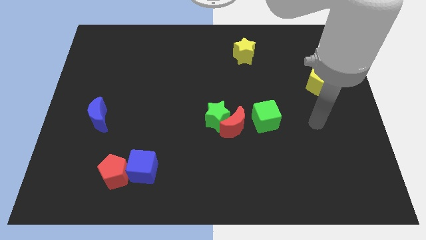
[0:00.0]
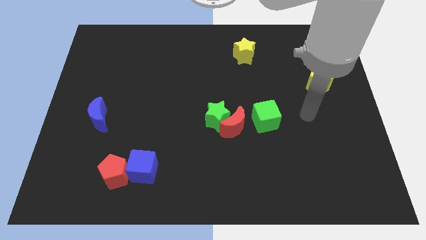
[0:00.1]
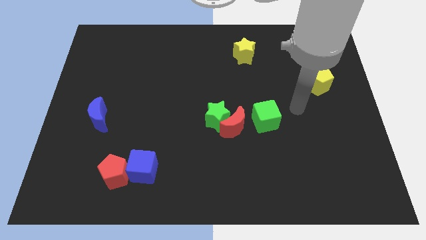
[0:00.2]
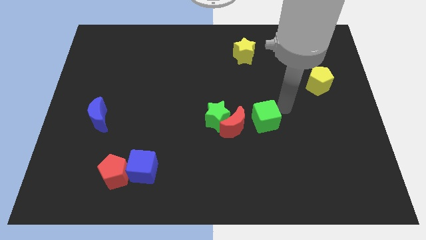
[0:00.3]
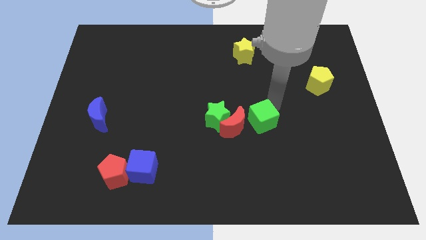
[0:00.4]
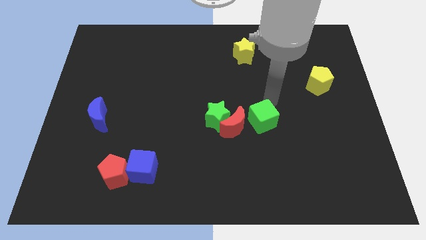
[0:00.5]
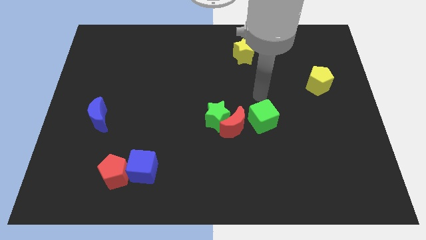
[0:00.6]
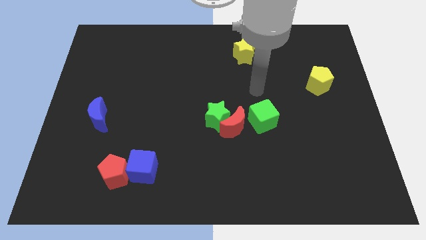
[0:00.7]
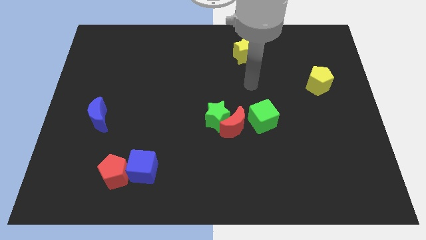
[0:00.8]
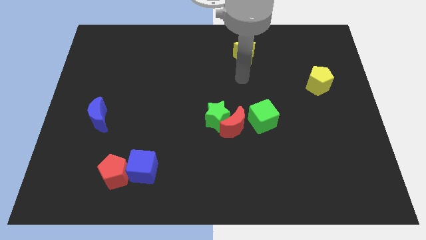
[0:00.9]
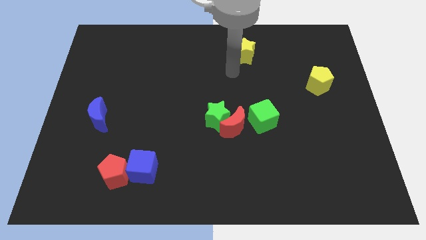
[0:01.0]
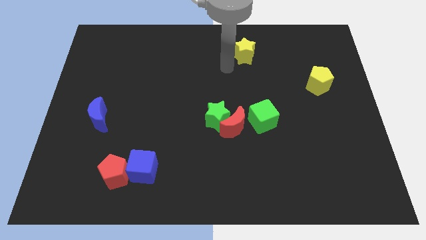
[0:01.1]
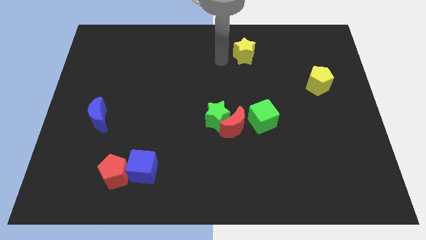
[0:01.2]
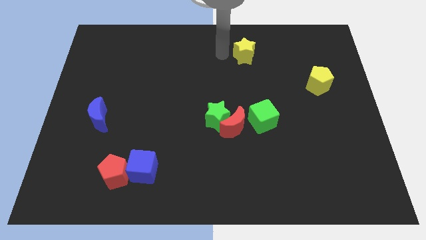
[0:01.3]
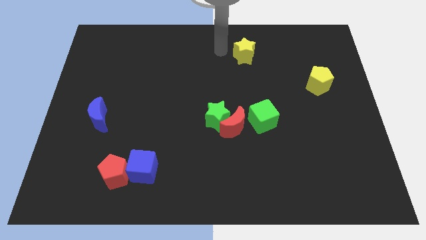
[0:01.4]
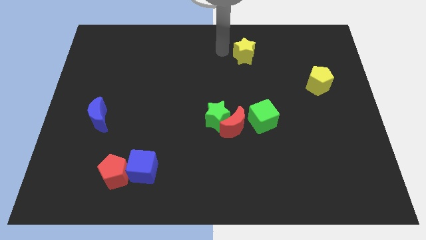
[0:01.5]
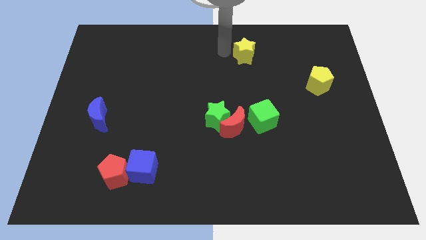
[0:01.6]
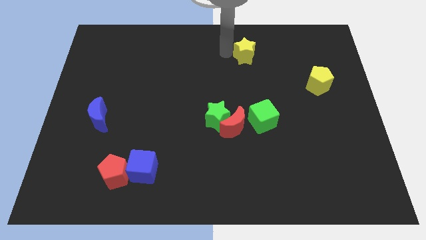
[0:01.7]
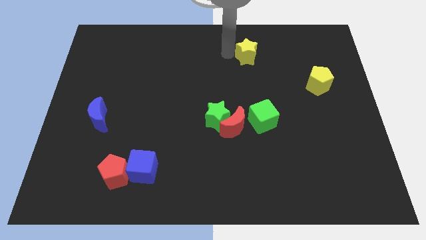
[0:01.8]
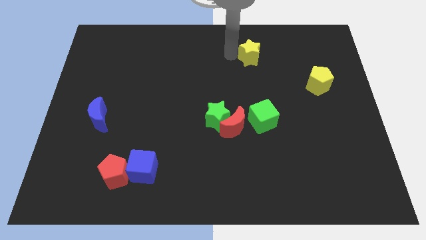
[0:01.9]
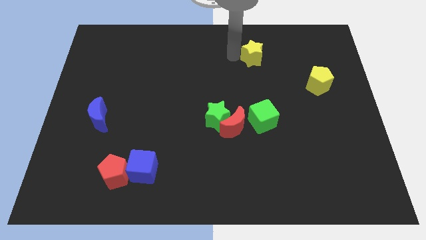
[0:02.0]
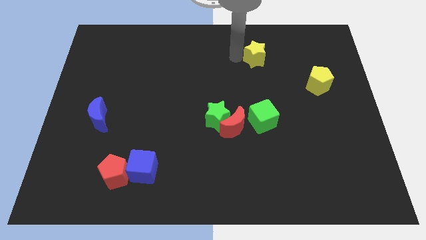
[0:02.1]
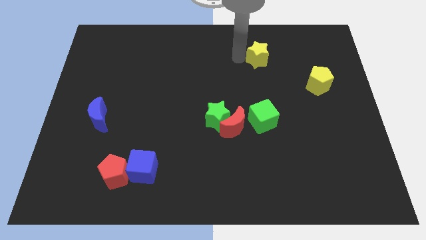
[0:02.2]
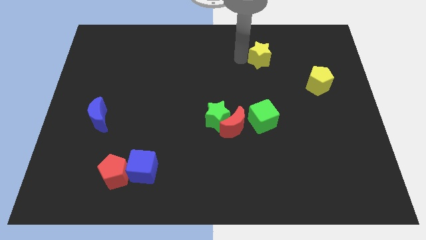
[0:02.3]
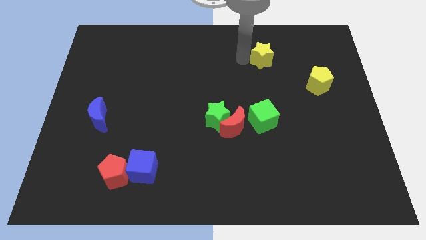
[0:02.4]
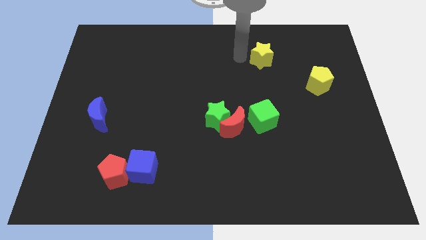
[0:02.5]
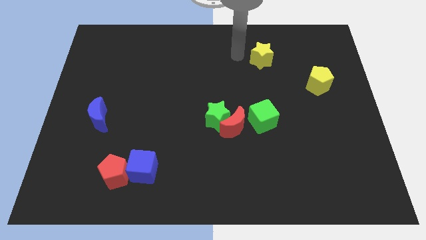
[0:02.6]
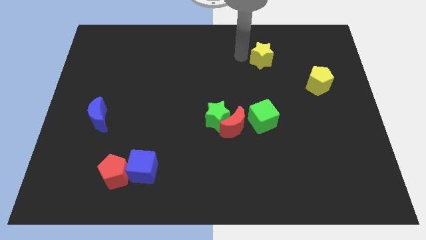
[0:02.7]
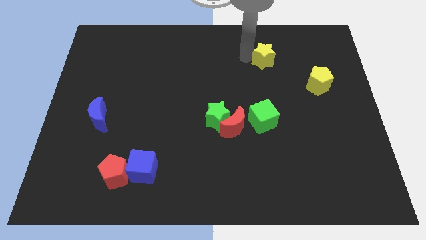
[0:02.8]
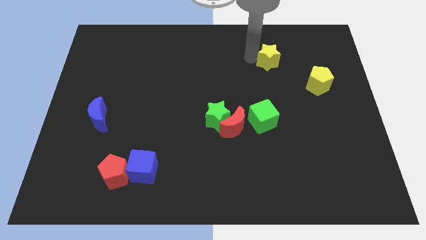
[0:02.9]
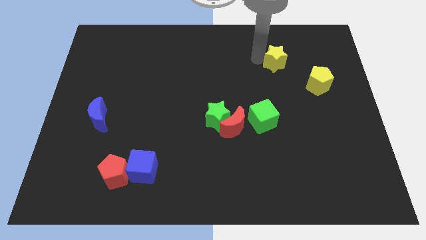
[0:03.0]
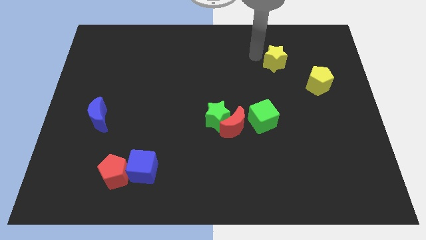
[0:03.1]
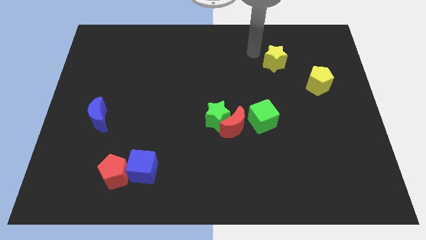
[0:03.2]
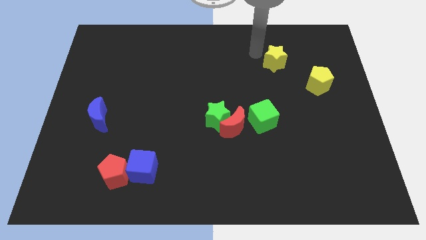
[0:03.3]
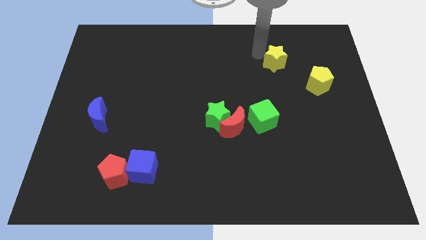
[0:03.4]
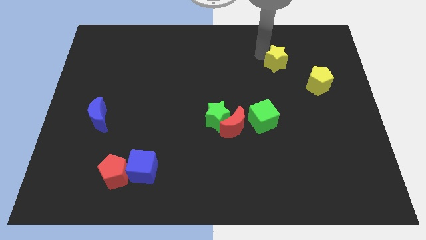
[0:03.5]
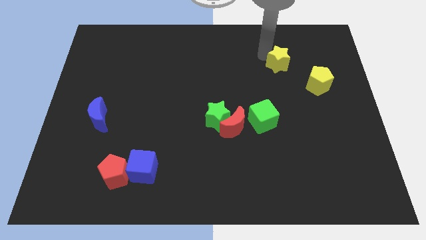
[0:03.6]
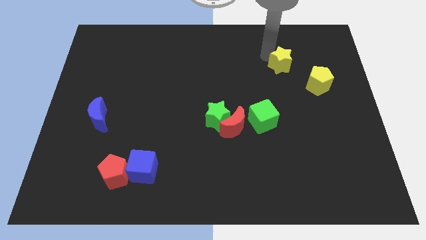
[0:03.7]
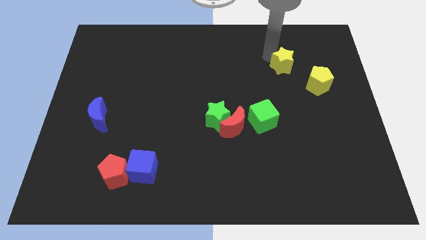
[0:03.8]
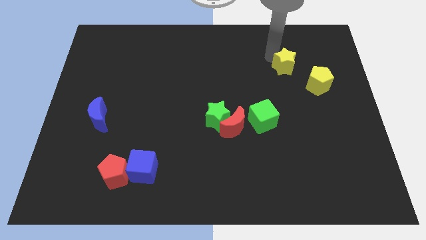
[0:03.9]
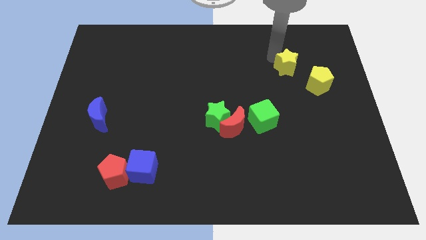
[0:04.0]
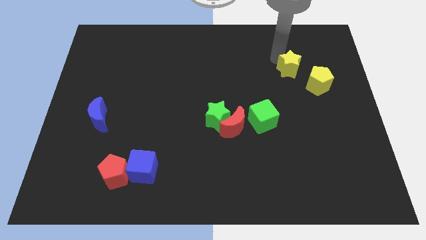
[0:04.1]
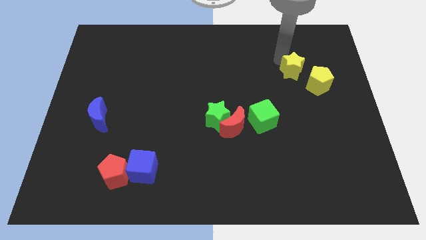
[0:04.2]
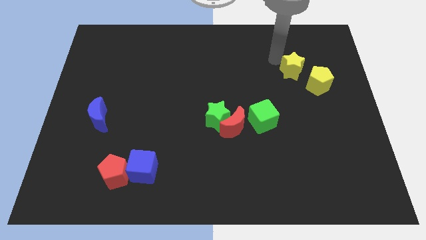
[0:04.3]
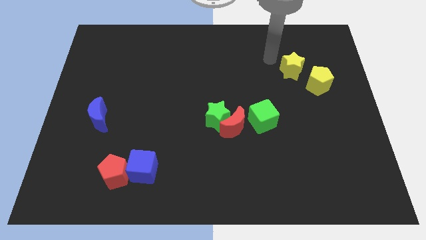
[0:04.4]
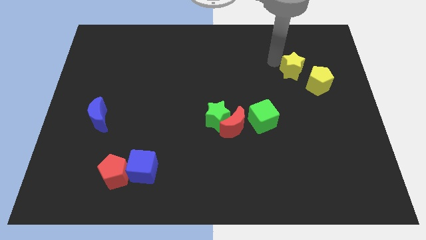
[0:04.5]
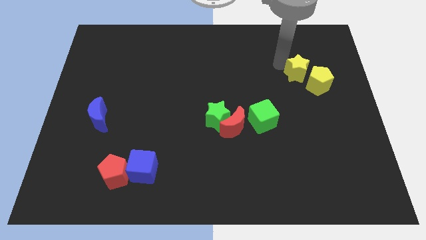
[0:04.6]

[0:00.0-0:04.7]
move the yellow star to the yellow pentagon

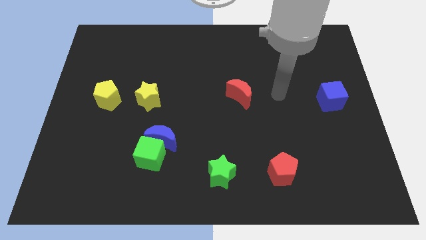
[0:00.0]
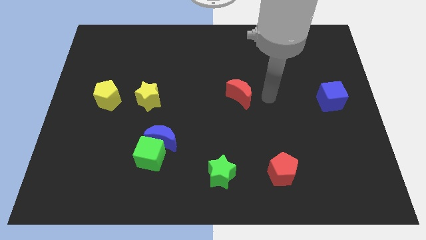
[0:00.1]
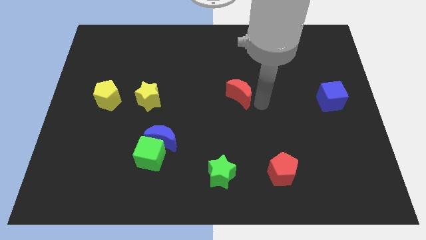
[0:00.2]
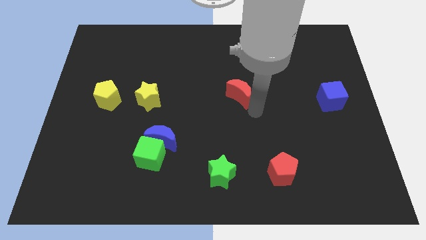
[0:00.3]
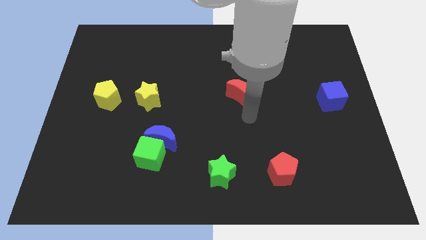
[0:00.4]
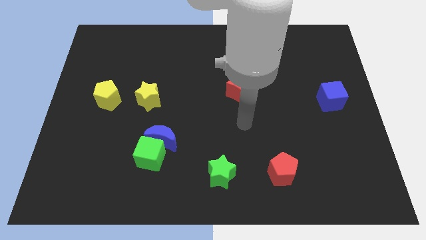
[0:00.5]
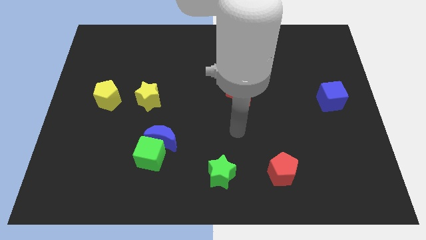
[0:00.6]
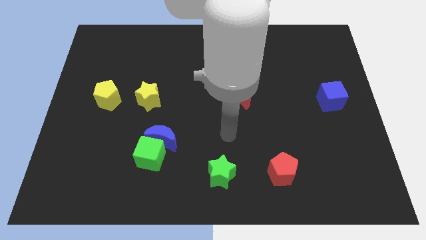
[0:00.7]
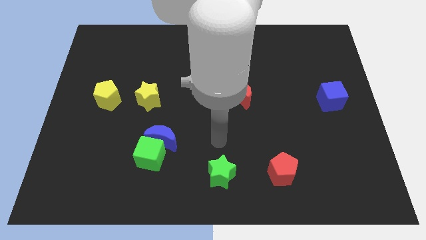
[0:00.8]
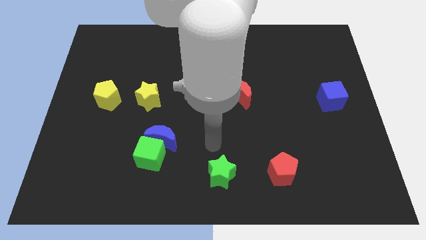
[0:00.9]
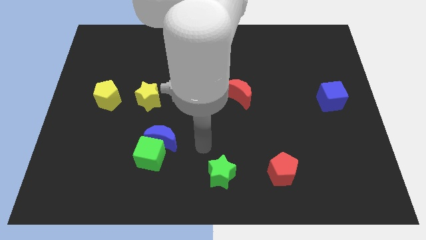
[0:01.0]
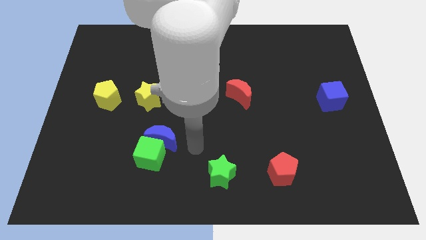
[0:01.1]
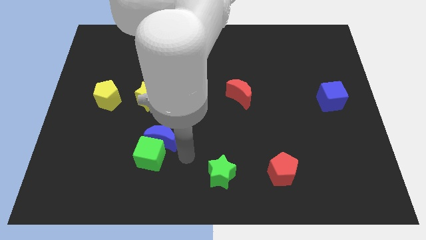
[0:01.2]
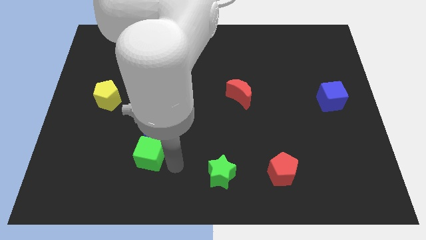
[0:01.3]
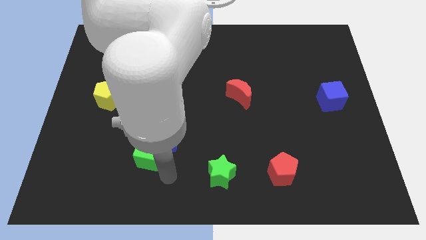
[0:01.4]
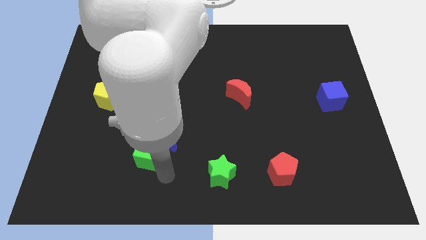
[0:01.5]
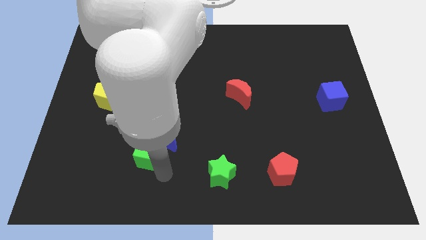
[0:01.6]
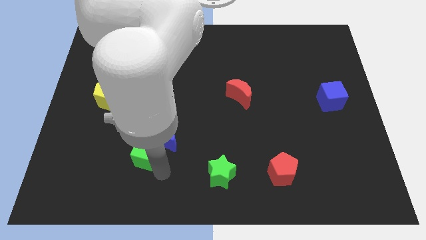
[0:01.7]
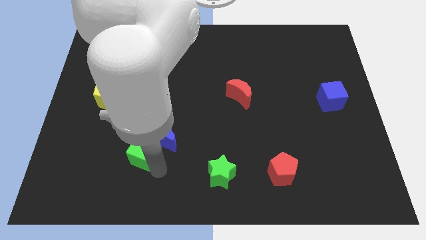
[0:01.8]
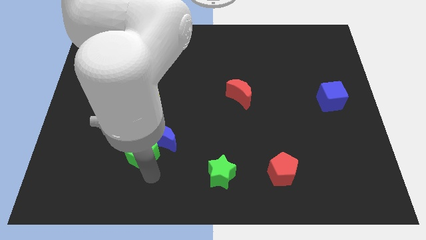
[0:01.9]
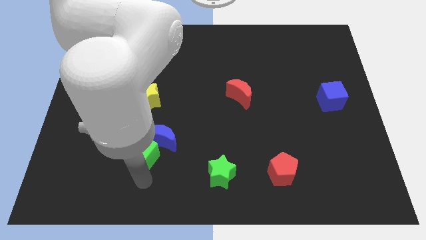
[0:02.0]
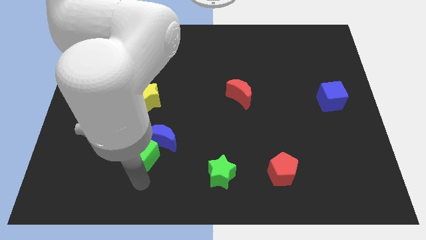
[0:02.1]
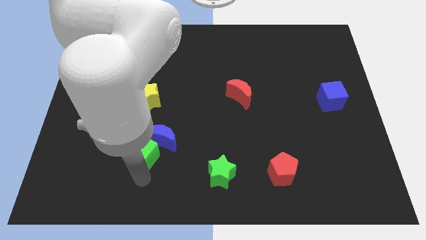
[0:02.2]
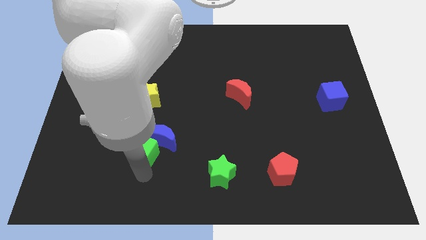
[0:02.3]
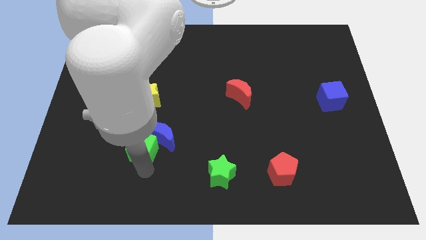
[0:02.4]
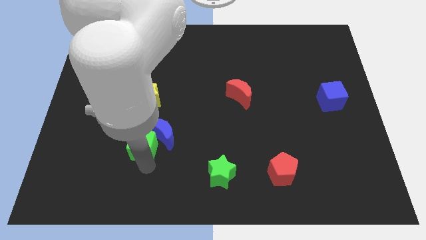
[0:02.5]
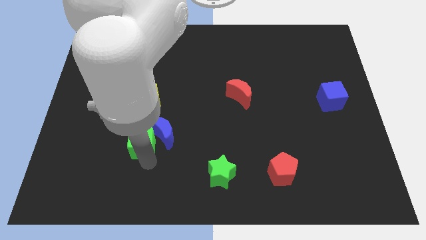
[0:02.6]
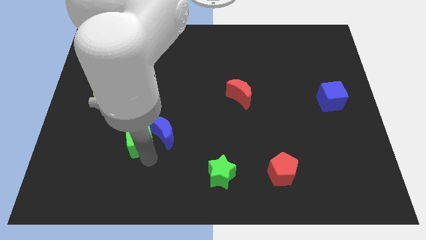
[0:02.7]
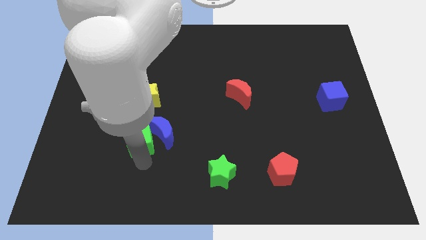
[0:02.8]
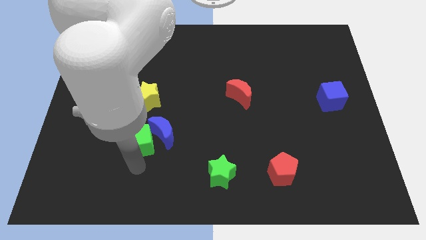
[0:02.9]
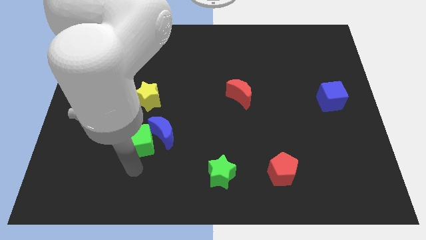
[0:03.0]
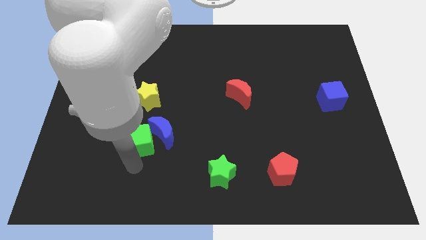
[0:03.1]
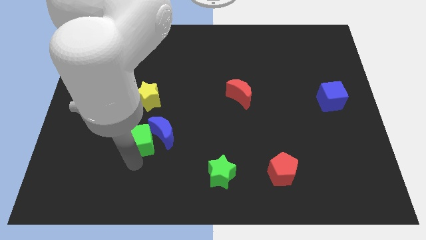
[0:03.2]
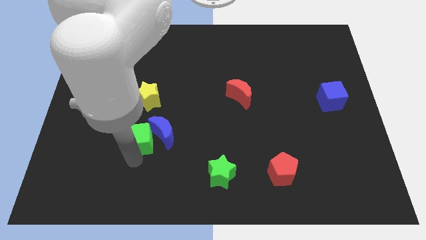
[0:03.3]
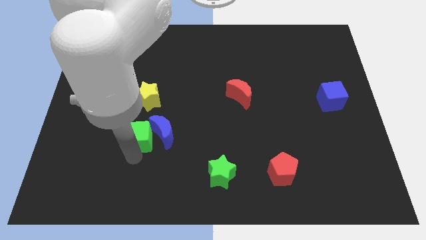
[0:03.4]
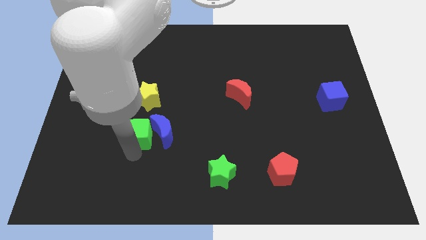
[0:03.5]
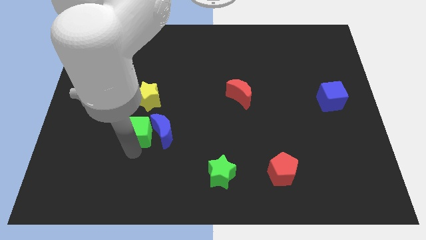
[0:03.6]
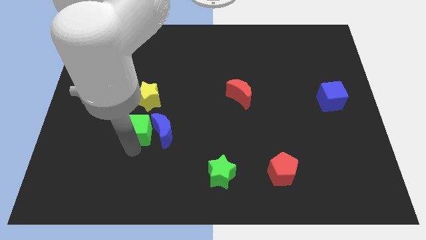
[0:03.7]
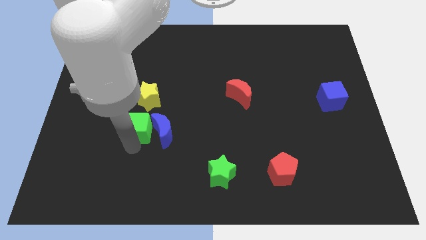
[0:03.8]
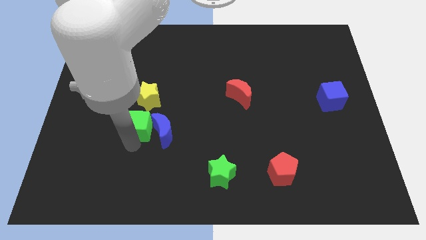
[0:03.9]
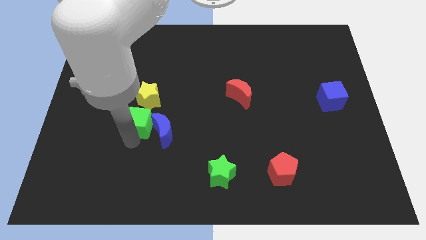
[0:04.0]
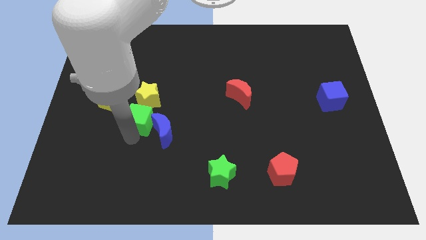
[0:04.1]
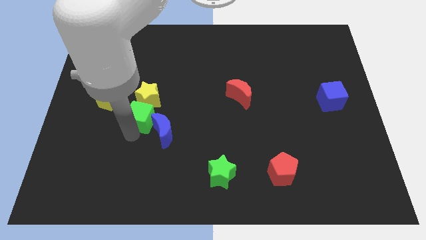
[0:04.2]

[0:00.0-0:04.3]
push the green cube next to the yellow star
